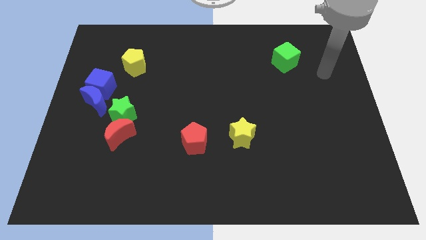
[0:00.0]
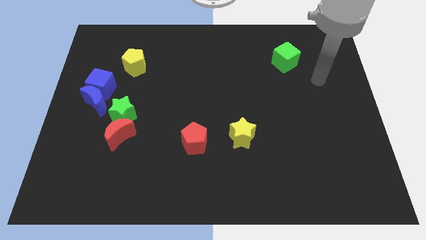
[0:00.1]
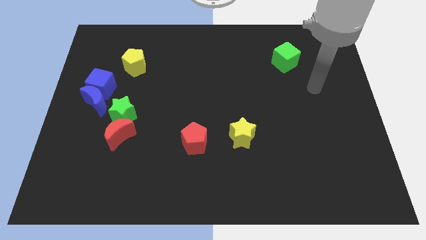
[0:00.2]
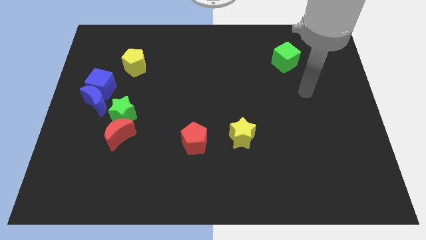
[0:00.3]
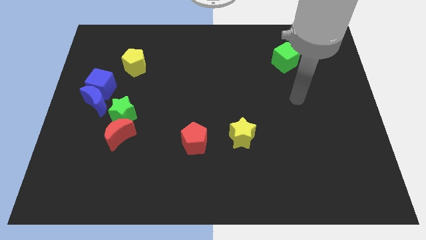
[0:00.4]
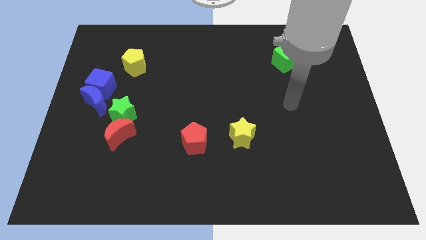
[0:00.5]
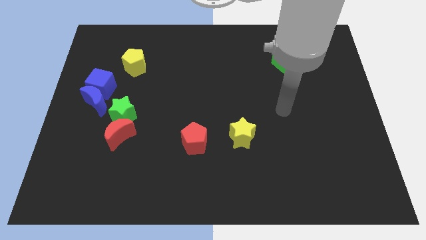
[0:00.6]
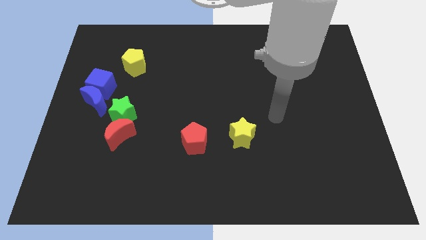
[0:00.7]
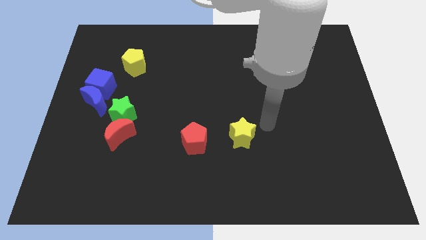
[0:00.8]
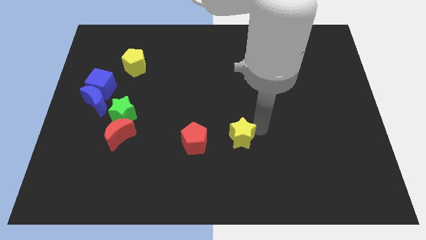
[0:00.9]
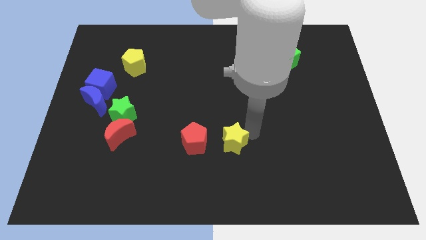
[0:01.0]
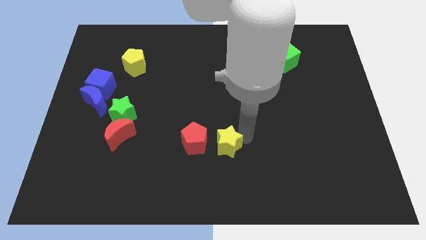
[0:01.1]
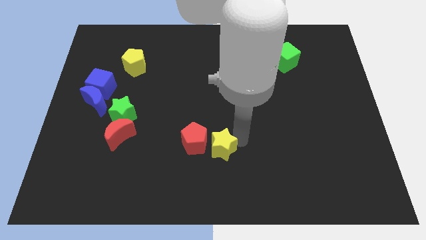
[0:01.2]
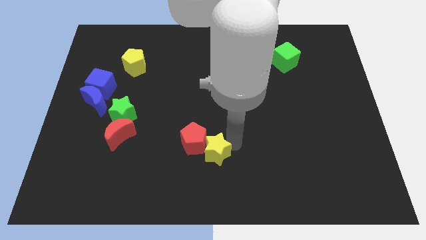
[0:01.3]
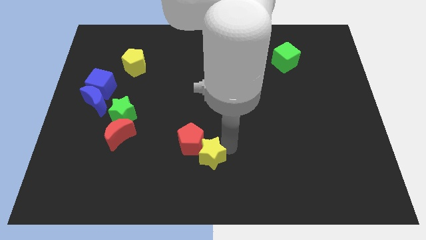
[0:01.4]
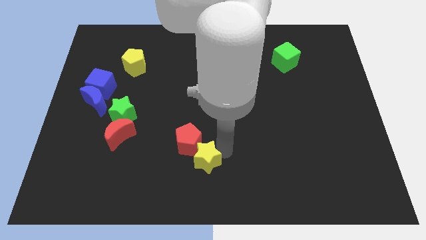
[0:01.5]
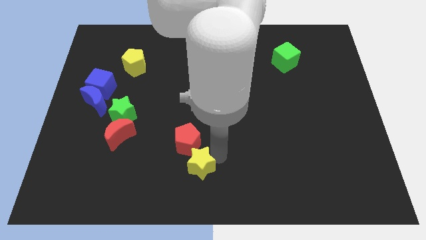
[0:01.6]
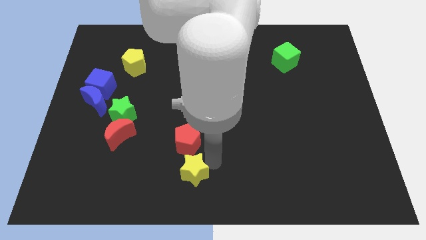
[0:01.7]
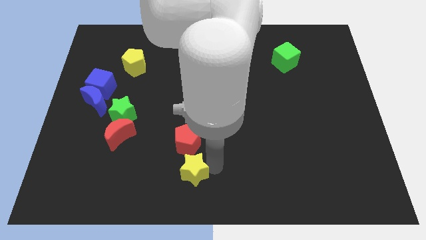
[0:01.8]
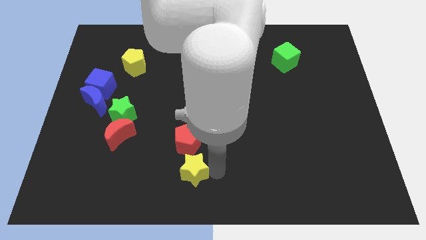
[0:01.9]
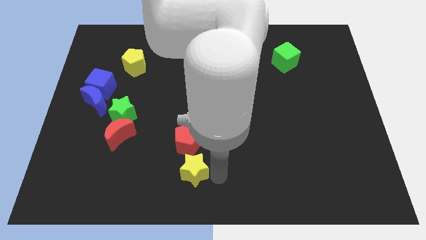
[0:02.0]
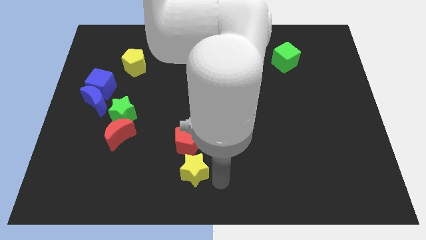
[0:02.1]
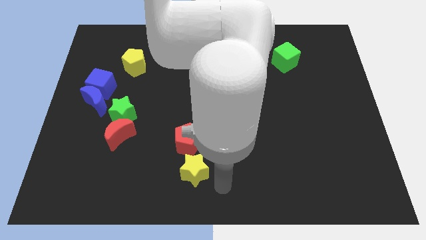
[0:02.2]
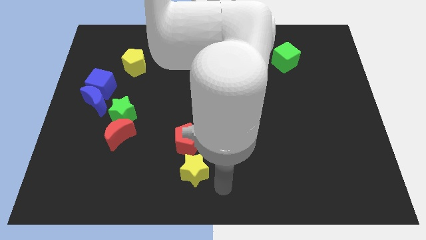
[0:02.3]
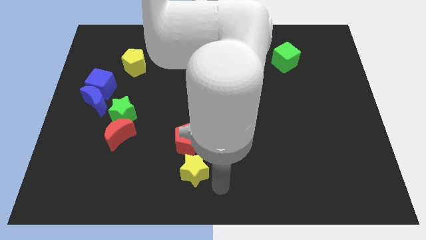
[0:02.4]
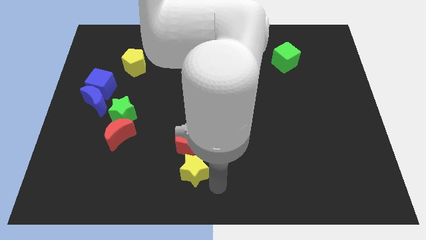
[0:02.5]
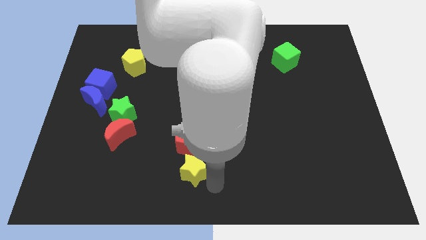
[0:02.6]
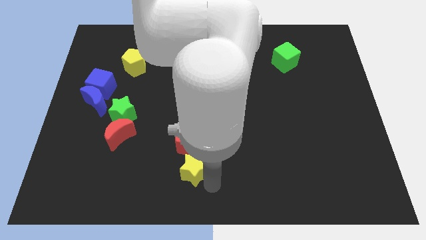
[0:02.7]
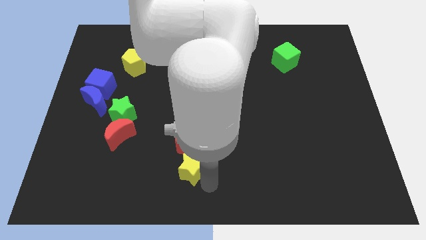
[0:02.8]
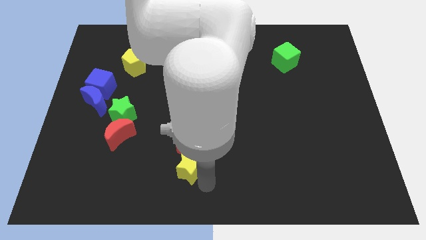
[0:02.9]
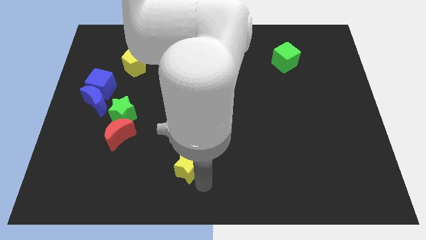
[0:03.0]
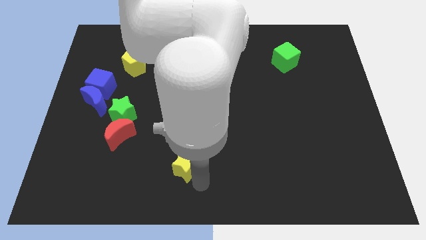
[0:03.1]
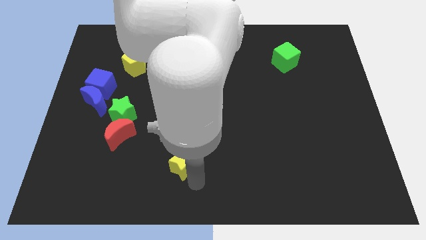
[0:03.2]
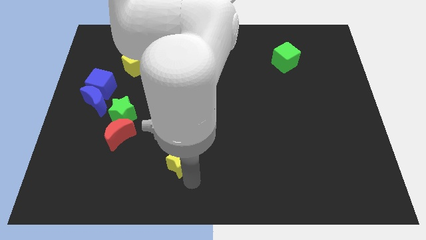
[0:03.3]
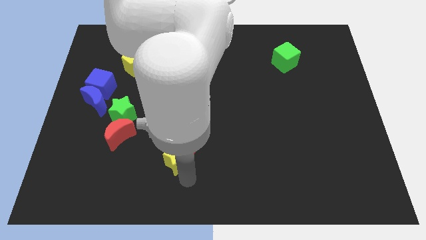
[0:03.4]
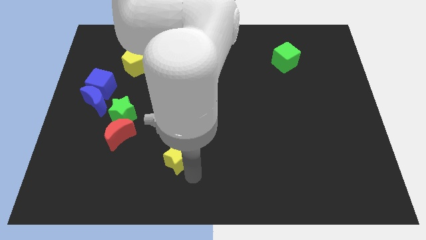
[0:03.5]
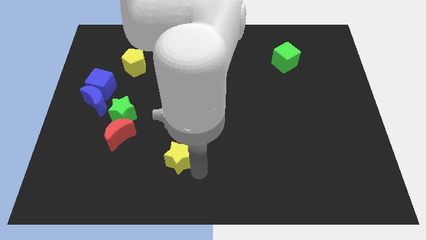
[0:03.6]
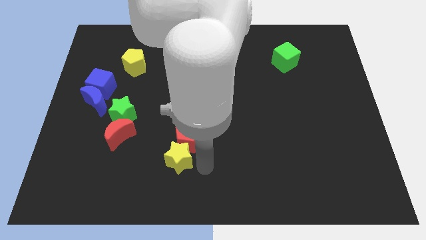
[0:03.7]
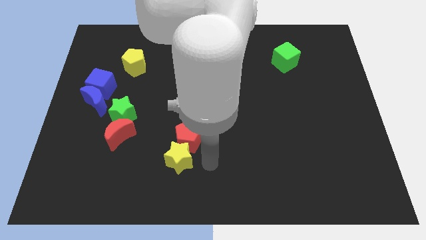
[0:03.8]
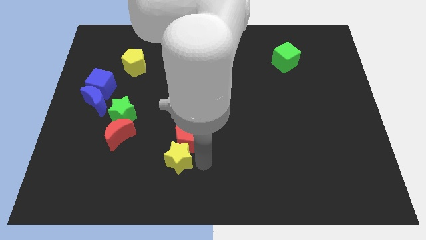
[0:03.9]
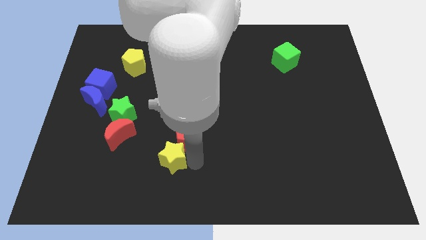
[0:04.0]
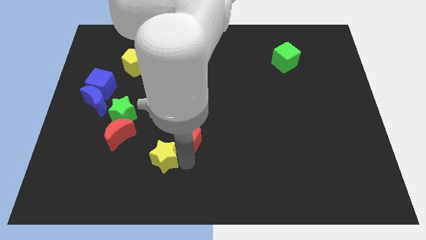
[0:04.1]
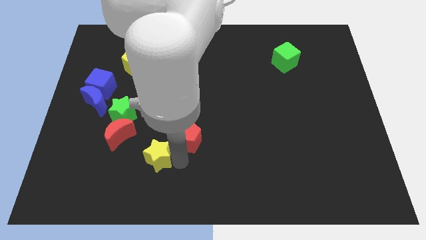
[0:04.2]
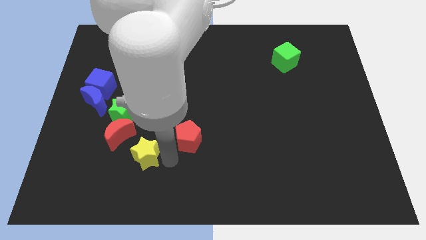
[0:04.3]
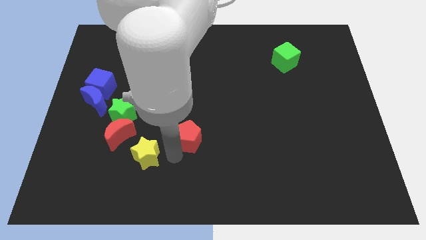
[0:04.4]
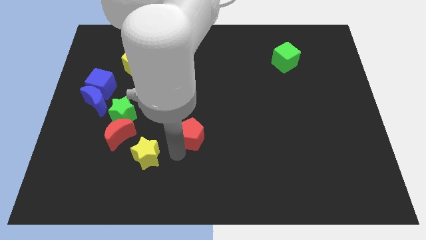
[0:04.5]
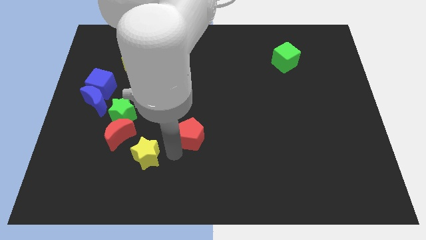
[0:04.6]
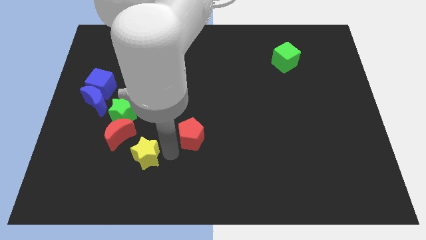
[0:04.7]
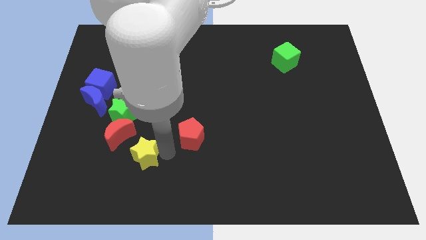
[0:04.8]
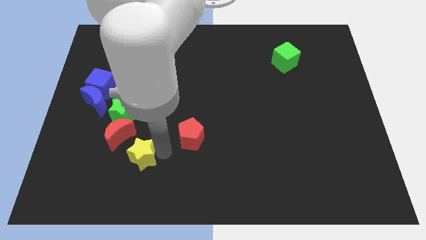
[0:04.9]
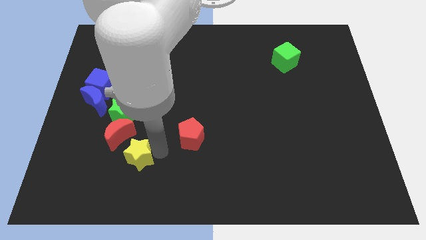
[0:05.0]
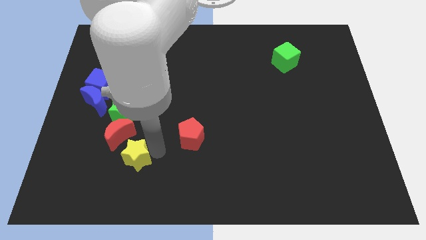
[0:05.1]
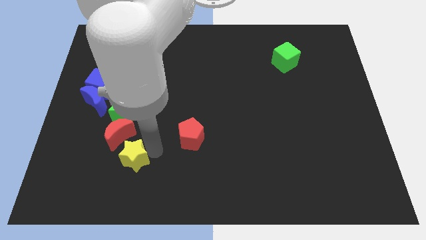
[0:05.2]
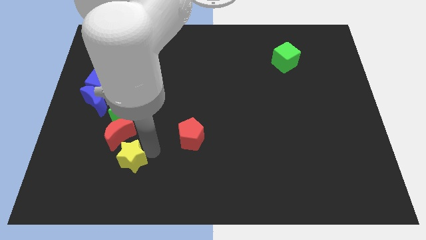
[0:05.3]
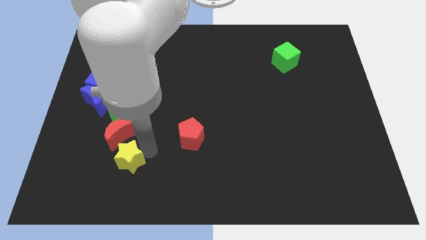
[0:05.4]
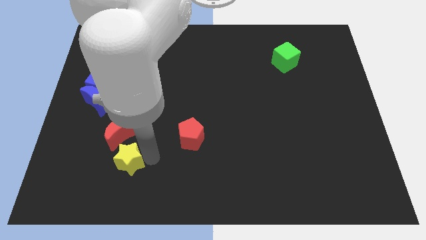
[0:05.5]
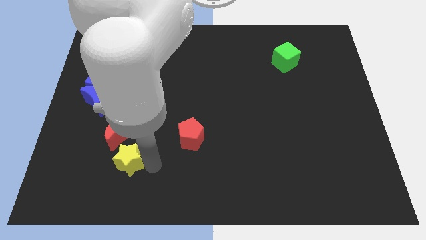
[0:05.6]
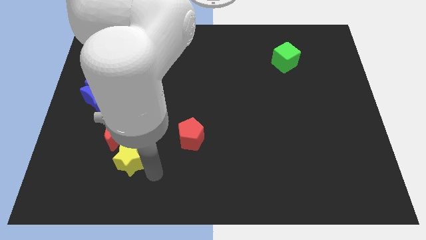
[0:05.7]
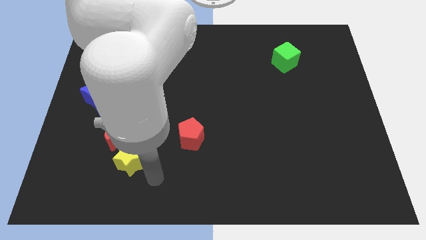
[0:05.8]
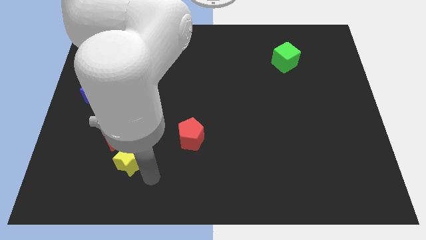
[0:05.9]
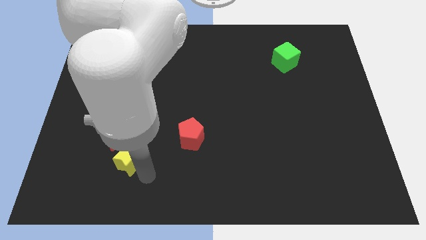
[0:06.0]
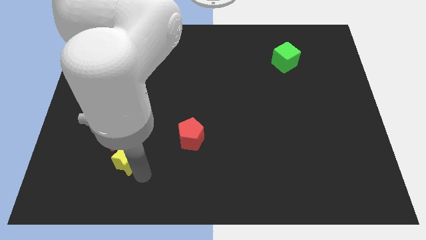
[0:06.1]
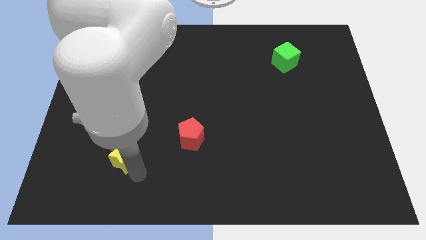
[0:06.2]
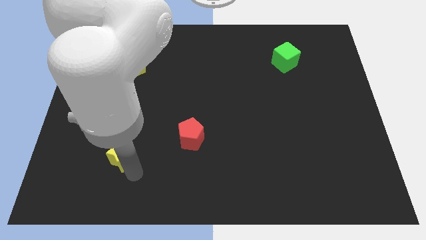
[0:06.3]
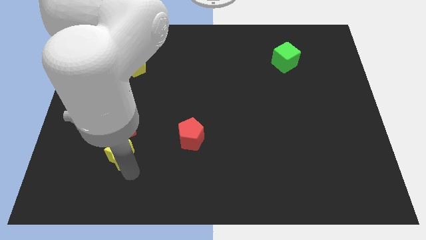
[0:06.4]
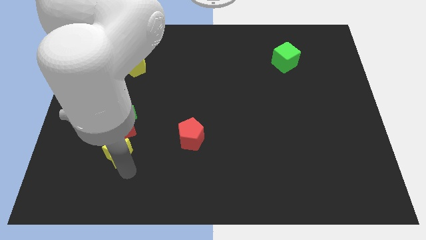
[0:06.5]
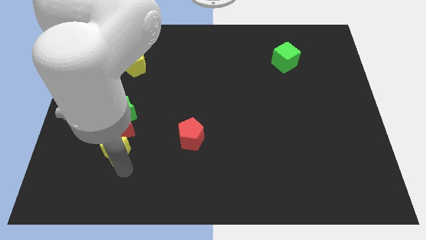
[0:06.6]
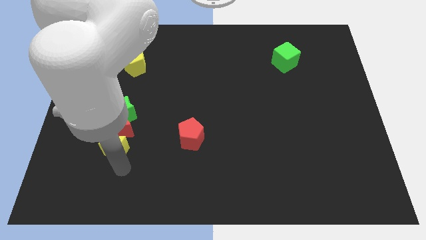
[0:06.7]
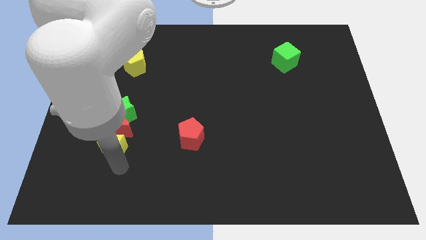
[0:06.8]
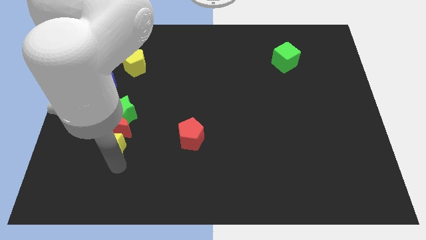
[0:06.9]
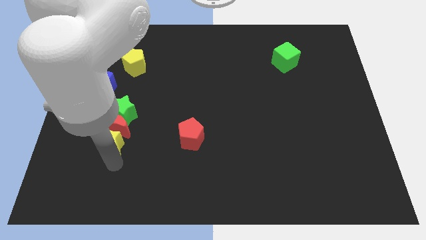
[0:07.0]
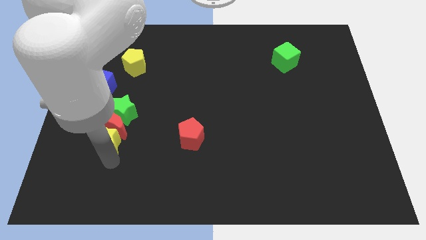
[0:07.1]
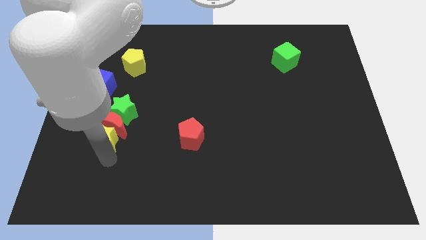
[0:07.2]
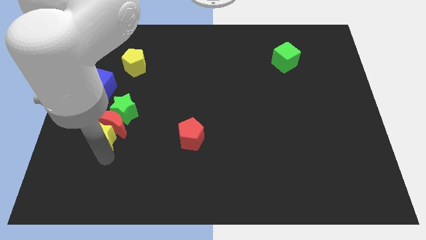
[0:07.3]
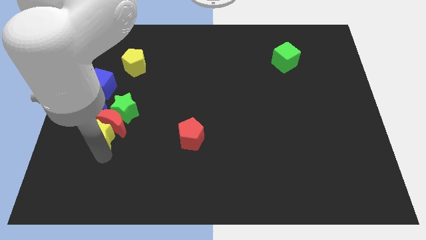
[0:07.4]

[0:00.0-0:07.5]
move the yellow star to the bottom of the blue cube
